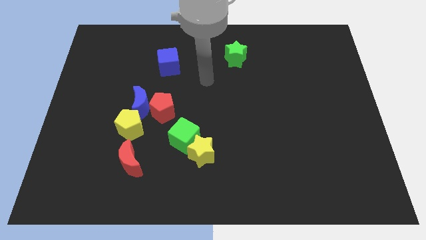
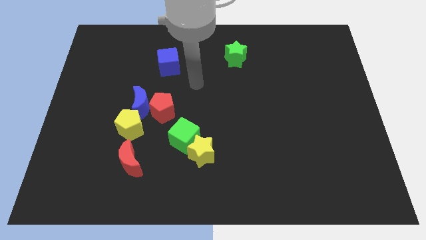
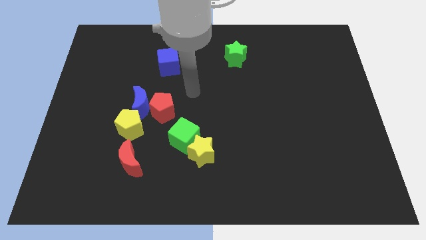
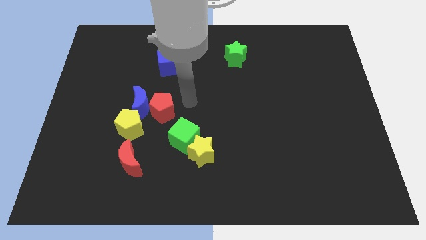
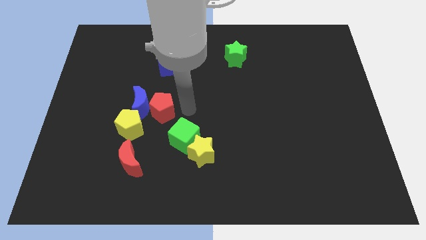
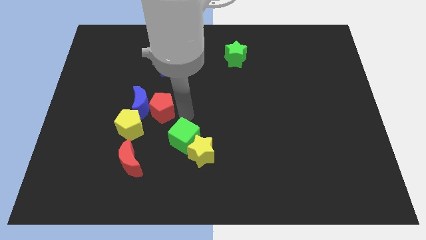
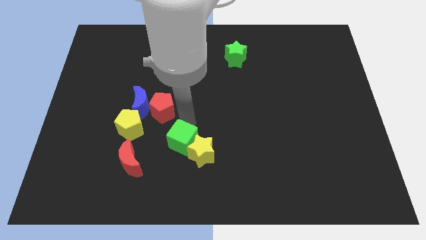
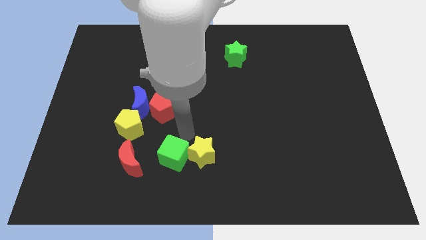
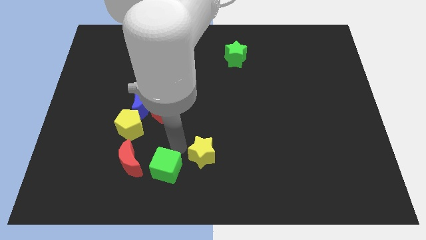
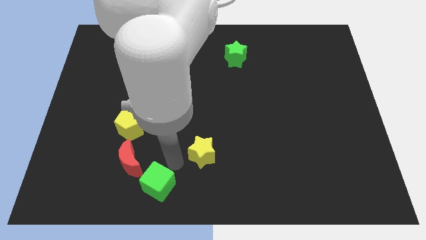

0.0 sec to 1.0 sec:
move the yellow star away from the green cube

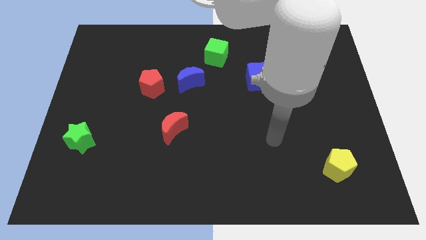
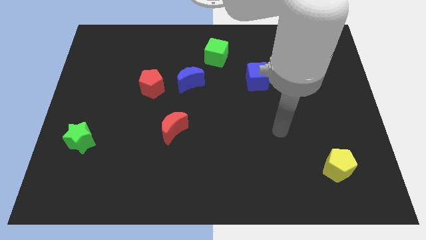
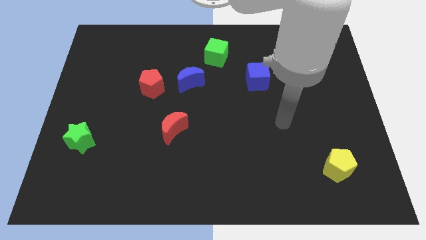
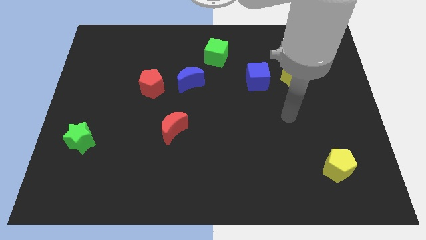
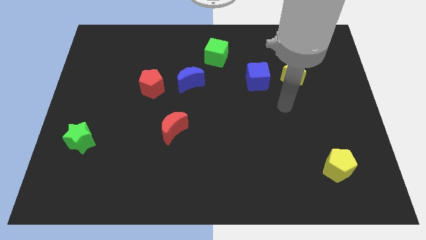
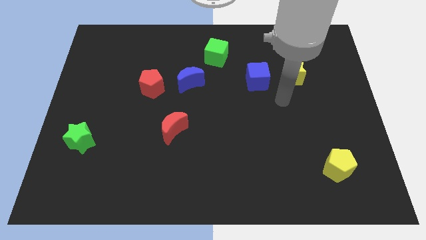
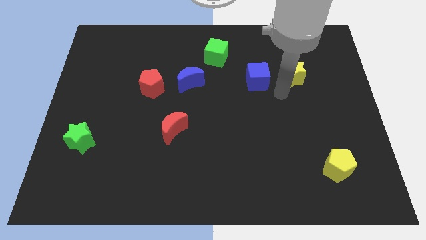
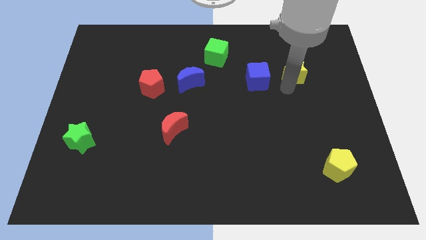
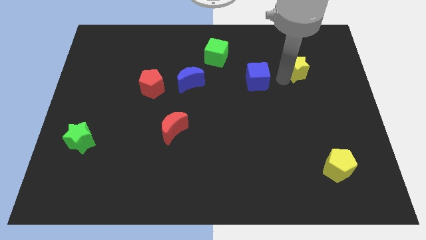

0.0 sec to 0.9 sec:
separate the blue cube from the yellow star

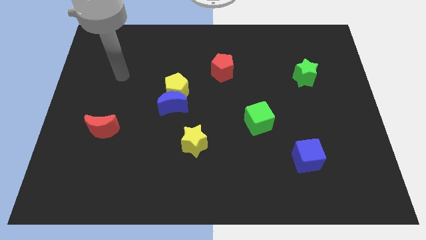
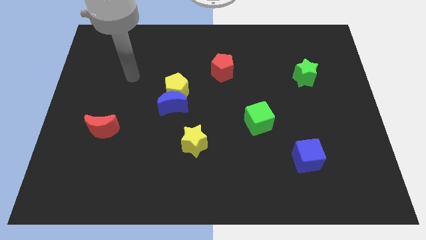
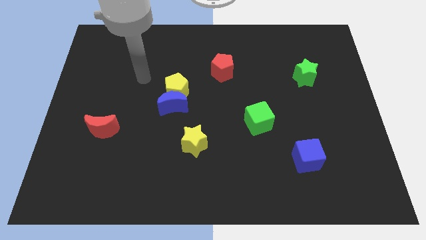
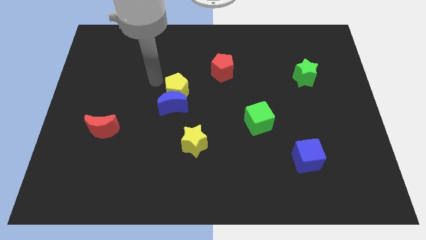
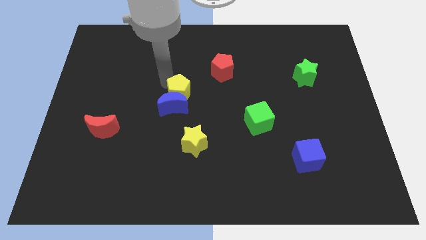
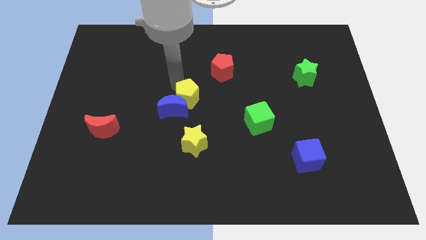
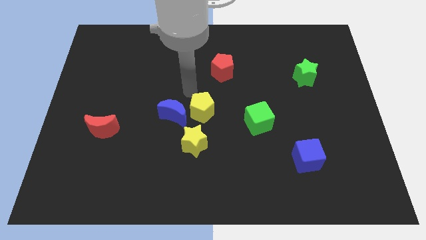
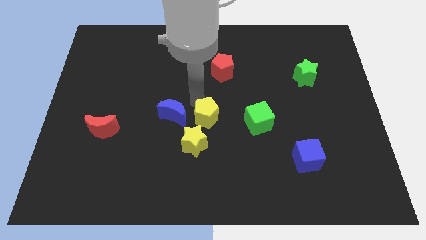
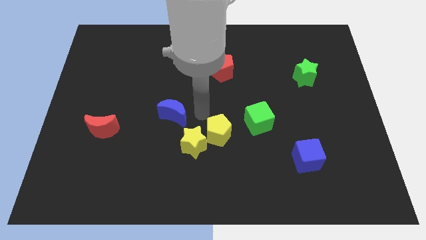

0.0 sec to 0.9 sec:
separate the blue moon from the yellow pentagon

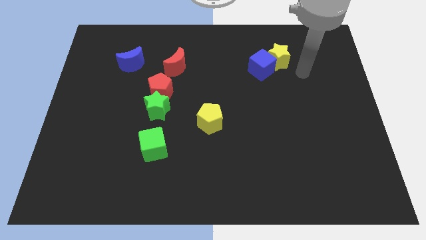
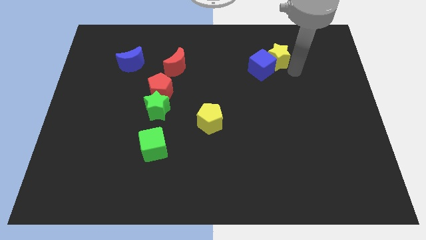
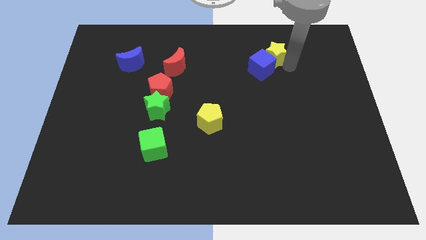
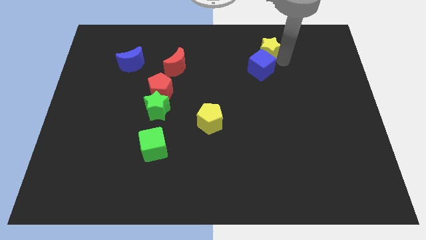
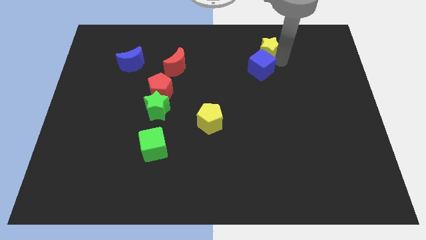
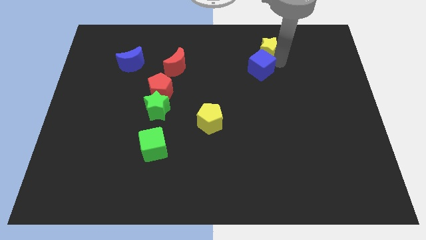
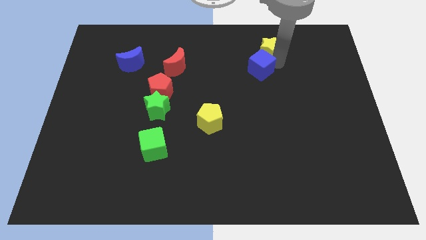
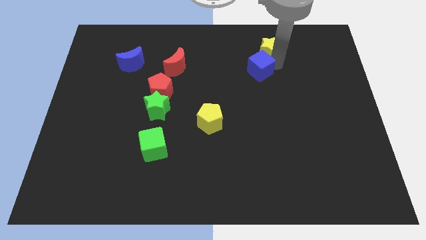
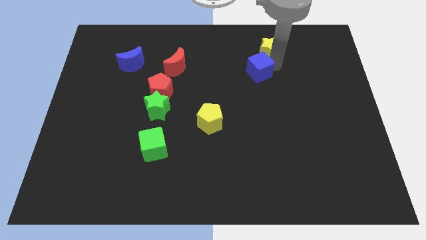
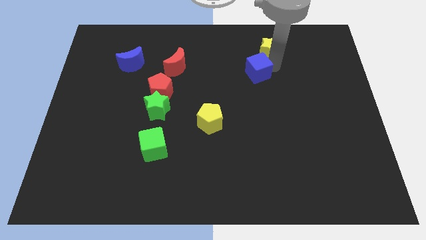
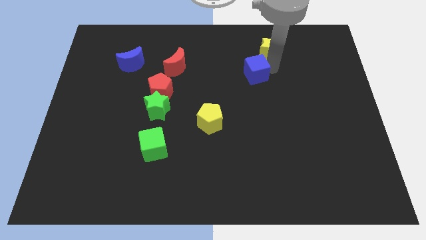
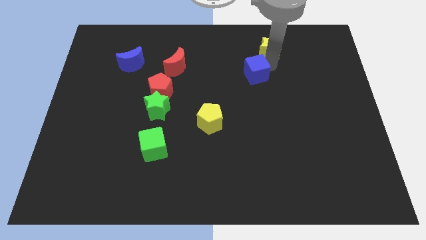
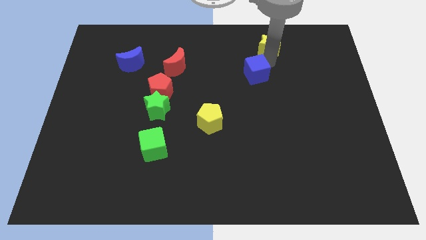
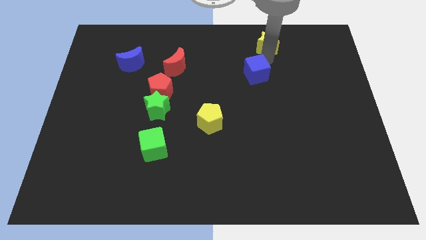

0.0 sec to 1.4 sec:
pull the blue cube apart from the yellow star

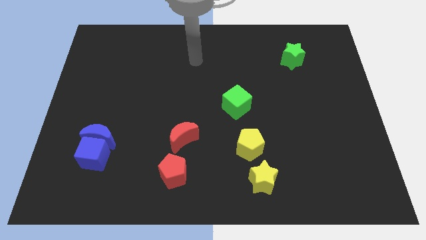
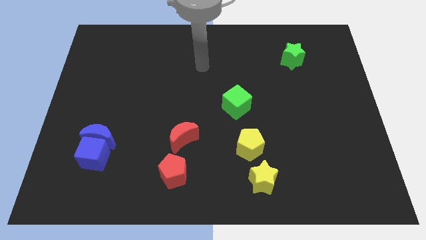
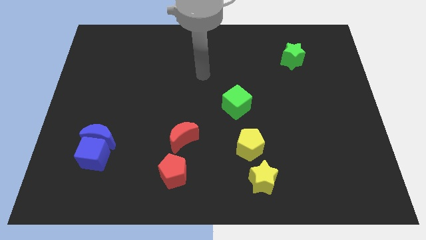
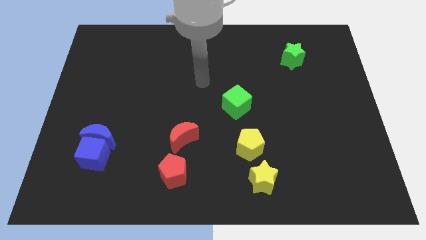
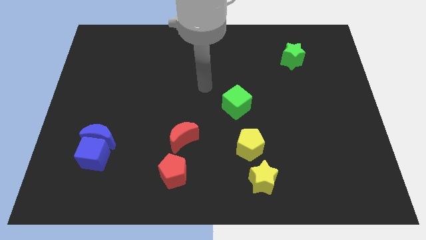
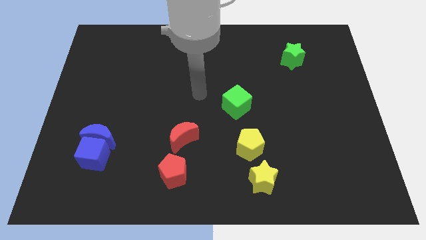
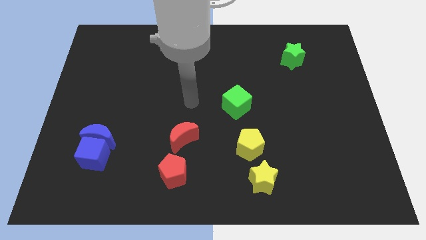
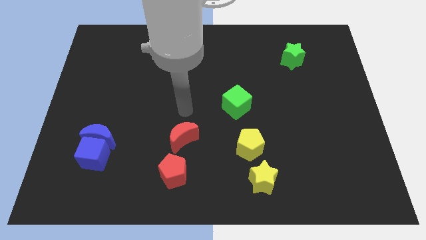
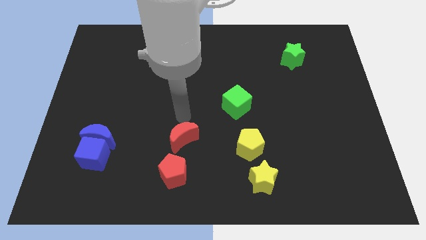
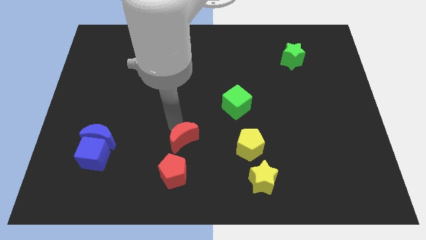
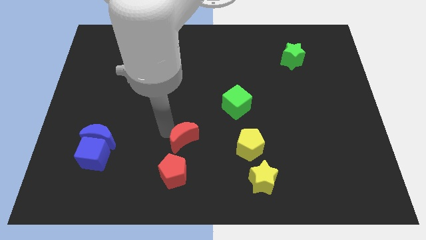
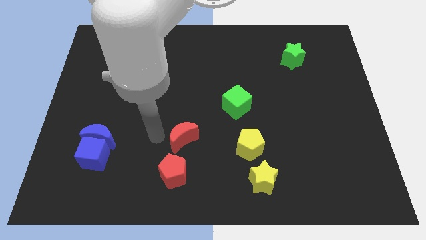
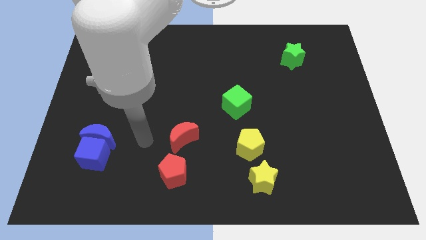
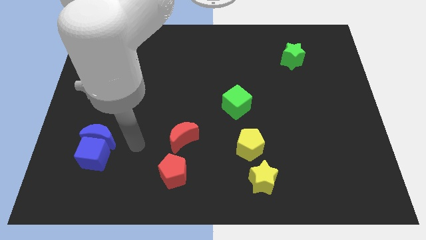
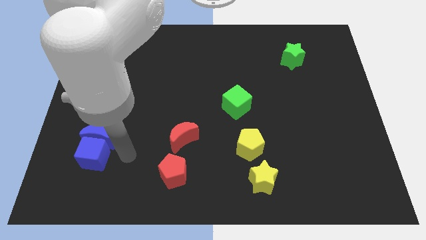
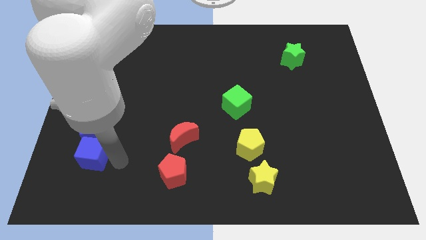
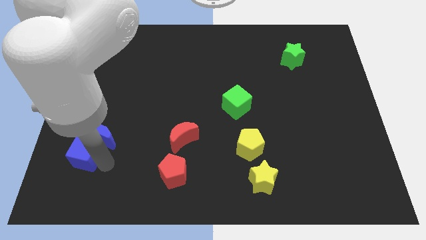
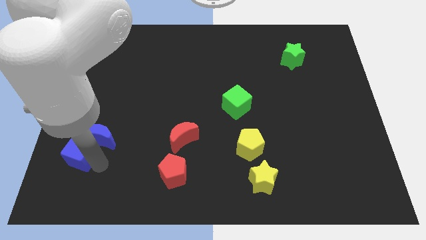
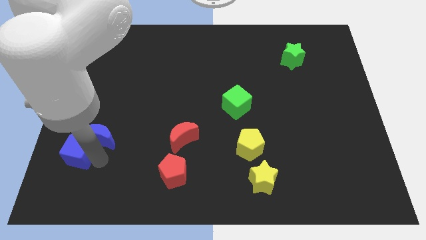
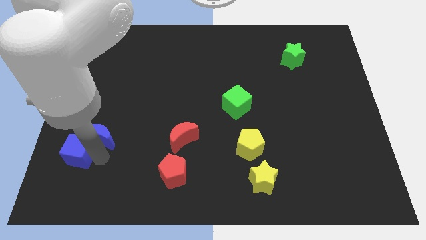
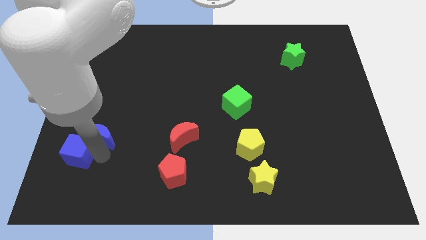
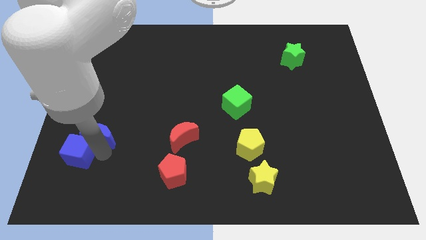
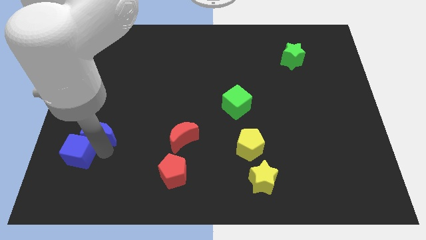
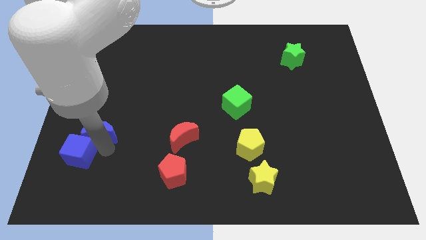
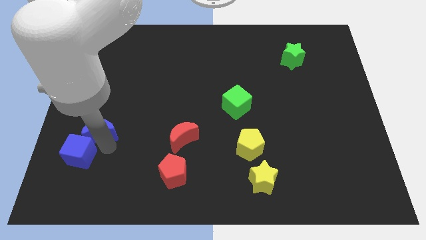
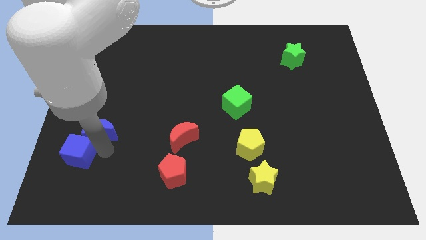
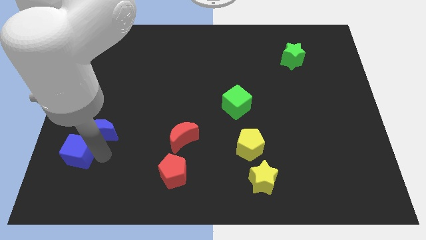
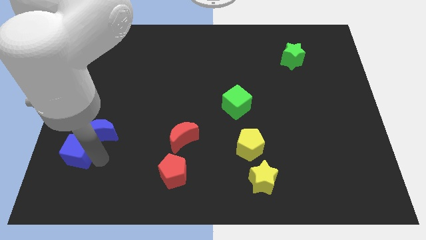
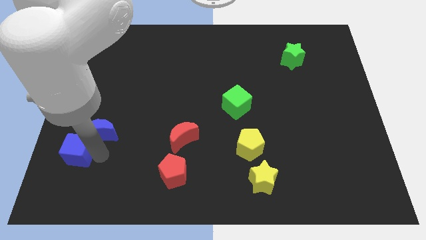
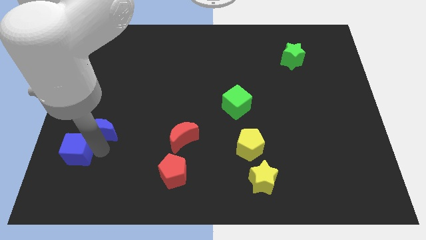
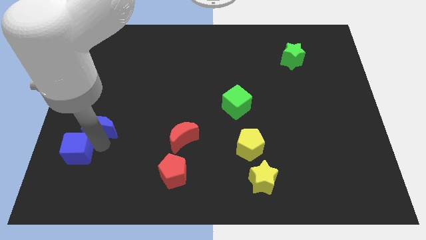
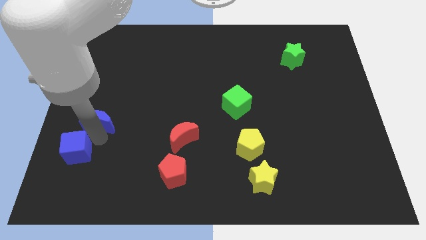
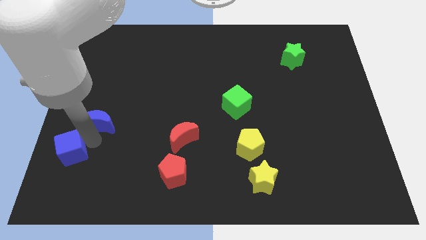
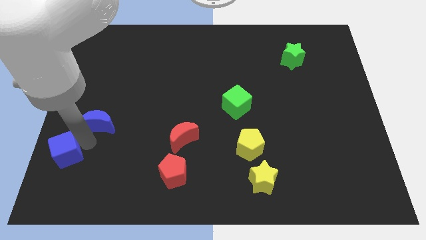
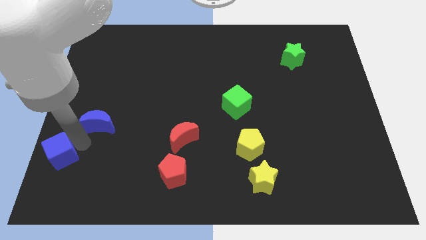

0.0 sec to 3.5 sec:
separate the blue moon from the blue cube

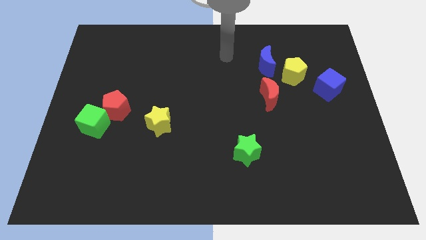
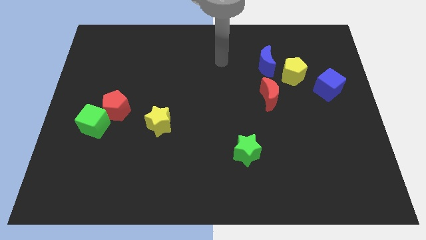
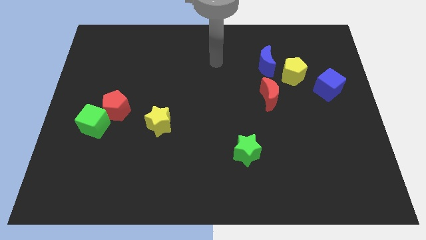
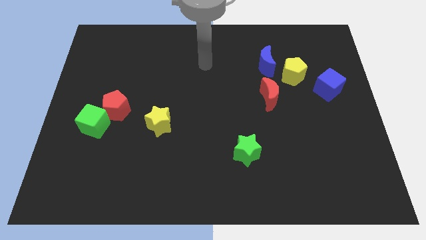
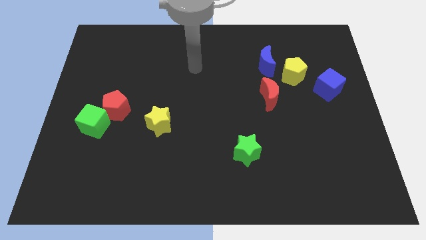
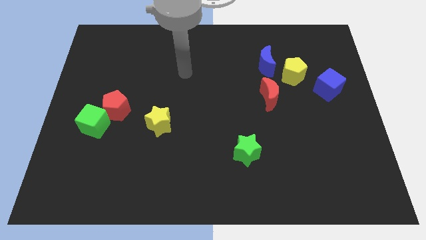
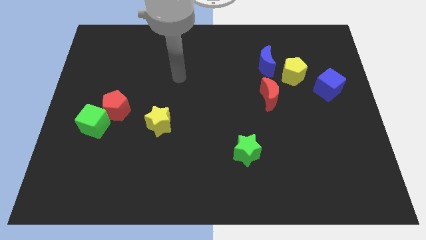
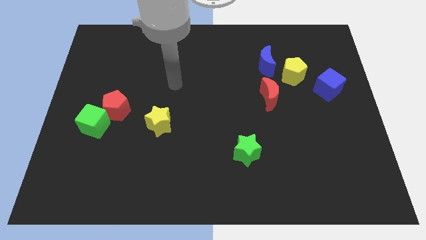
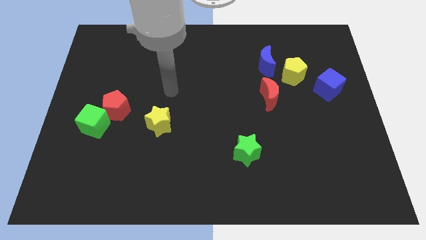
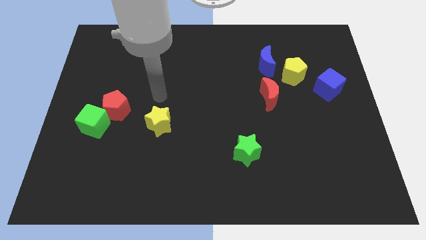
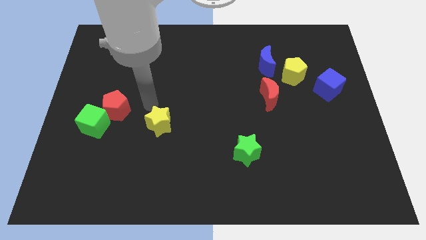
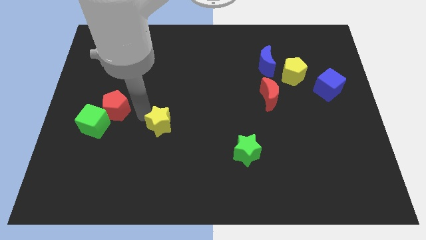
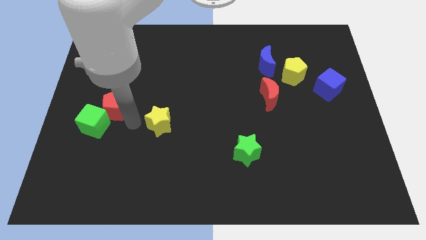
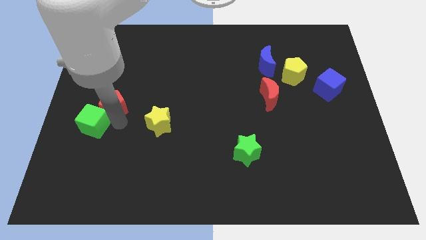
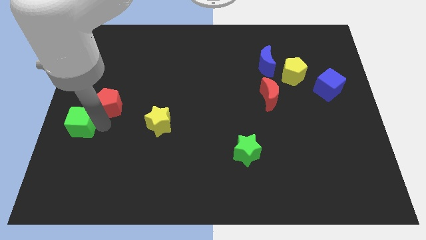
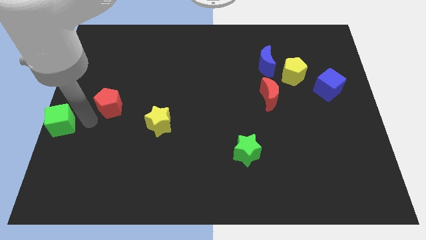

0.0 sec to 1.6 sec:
separate the red pentagon from the green cube
